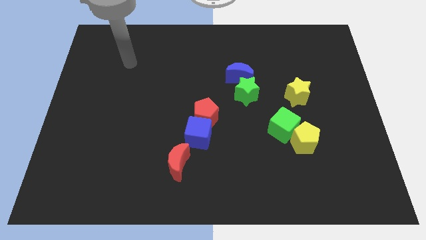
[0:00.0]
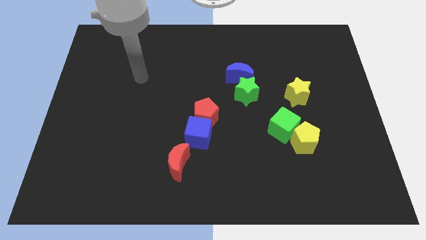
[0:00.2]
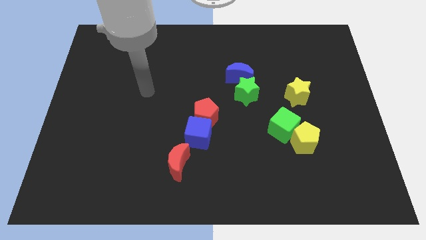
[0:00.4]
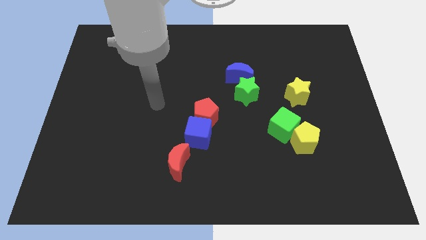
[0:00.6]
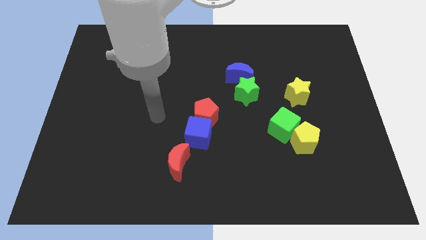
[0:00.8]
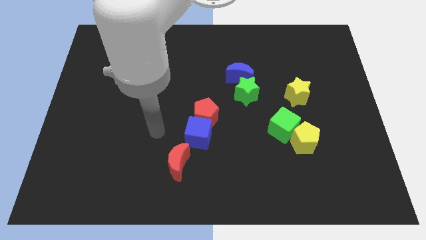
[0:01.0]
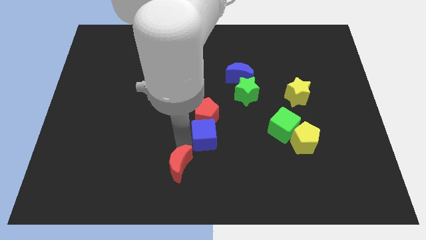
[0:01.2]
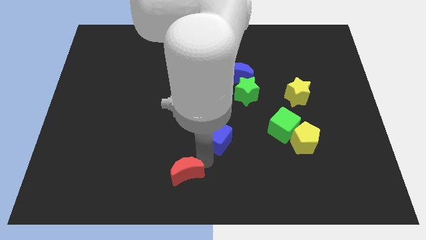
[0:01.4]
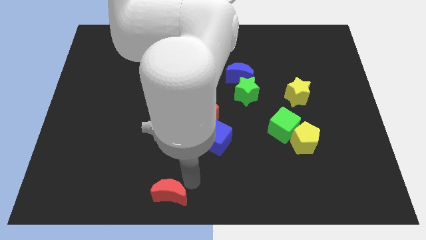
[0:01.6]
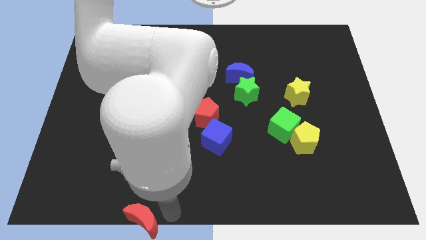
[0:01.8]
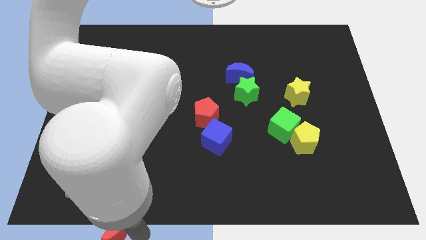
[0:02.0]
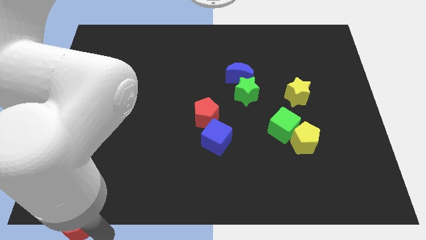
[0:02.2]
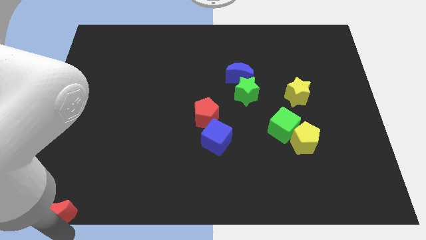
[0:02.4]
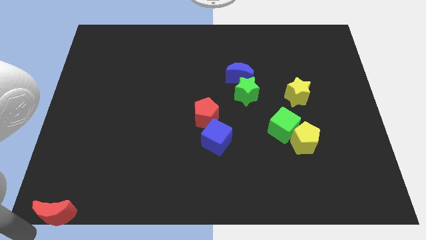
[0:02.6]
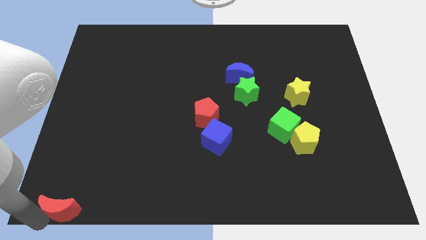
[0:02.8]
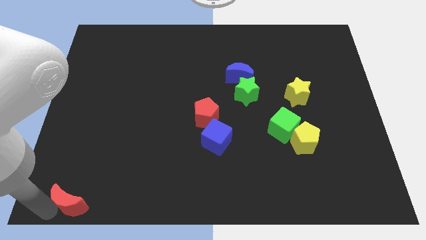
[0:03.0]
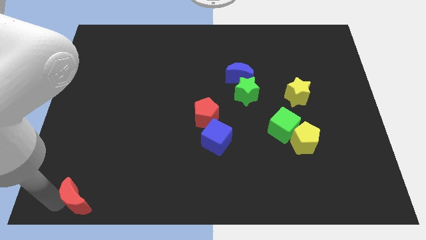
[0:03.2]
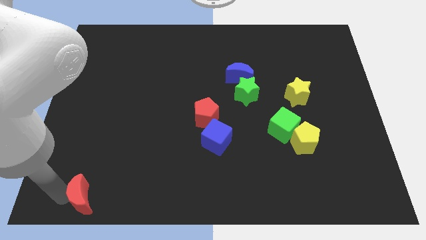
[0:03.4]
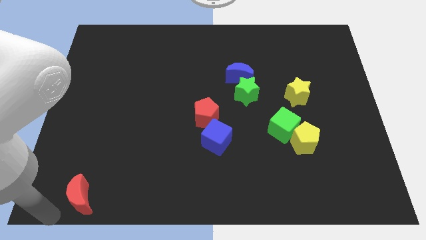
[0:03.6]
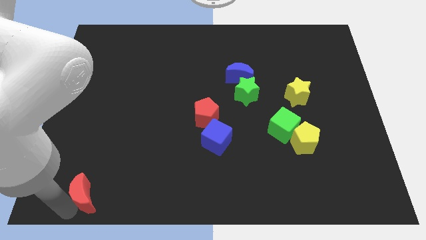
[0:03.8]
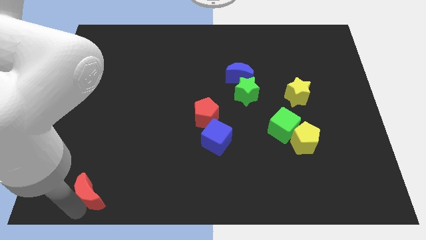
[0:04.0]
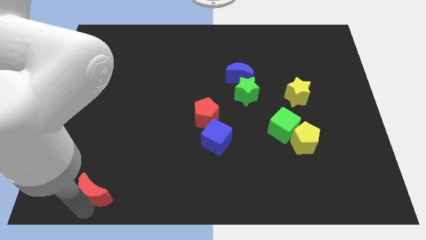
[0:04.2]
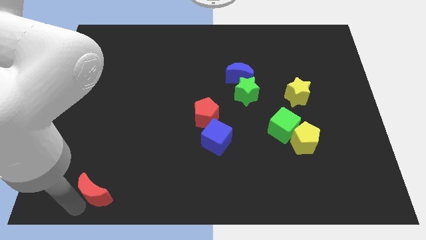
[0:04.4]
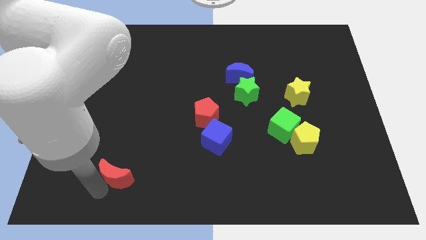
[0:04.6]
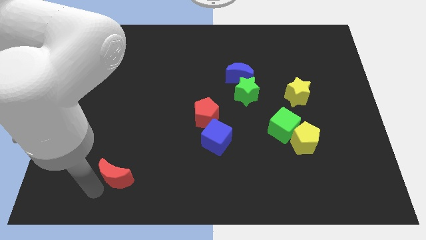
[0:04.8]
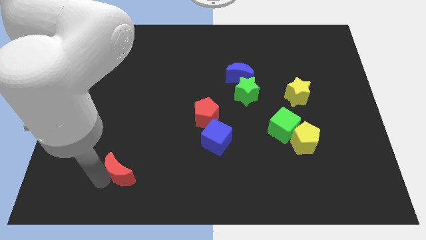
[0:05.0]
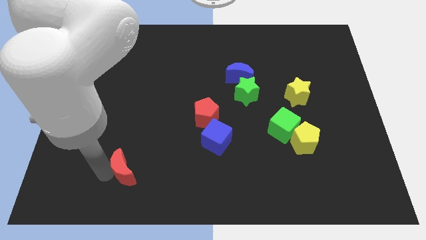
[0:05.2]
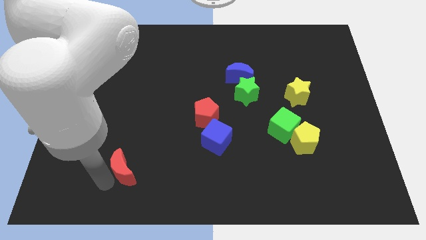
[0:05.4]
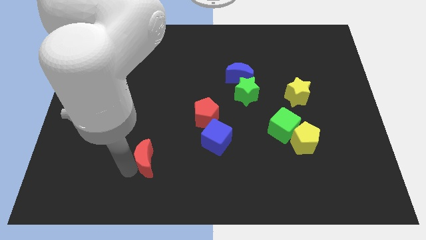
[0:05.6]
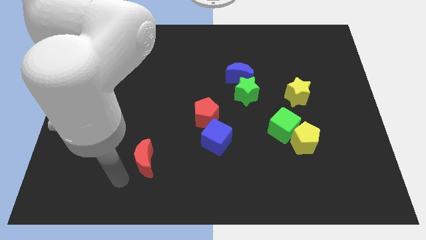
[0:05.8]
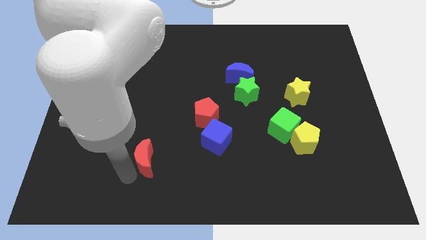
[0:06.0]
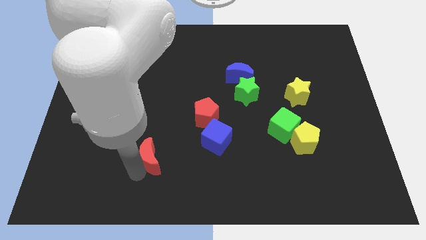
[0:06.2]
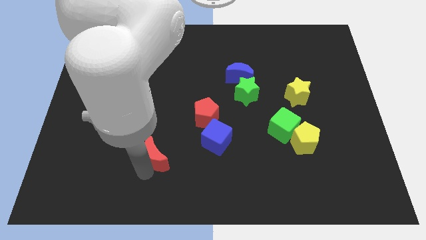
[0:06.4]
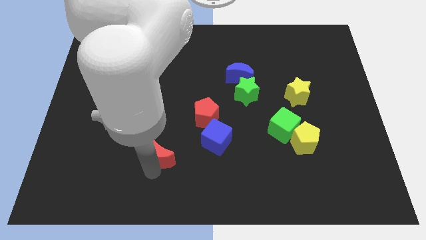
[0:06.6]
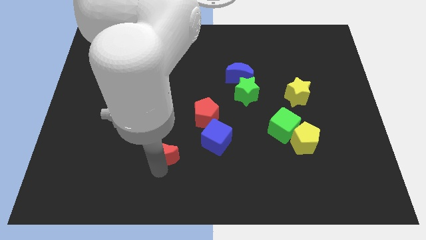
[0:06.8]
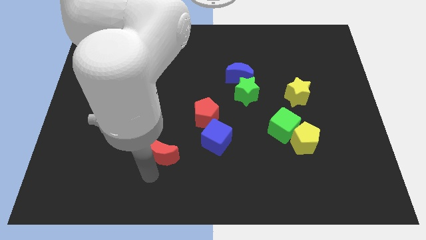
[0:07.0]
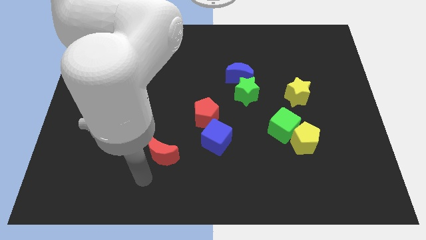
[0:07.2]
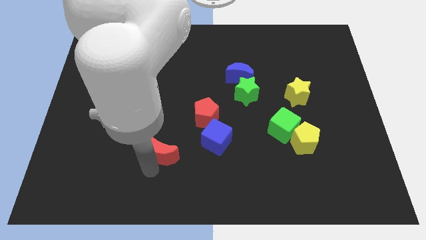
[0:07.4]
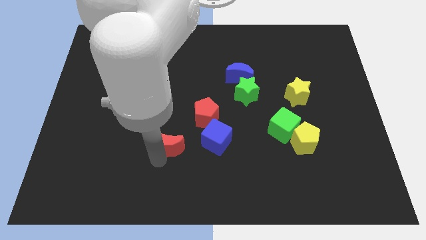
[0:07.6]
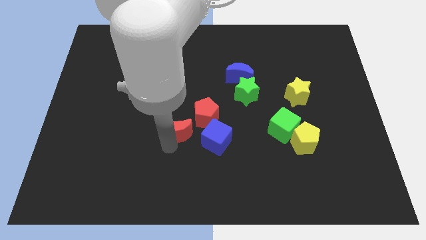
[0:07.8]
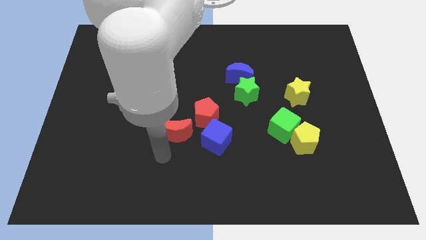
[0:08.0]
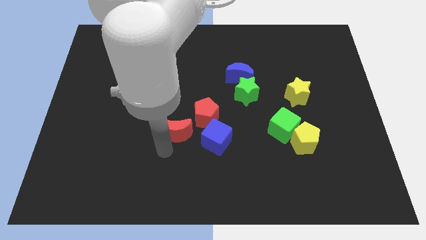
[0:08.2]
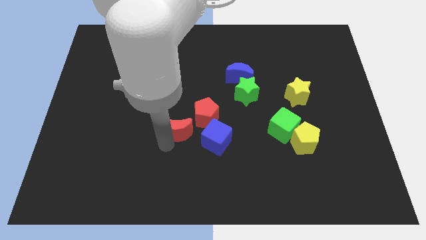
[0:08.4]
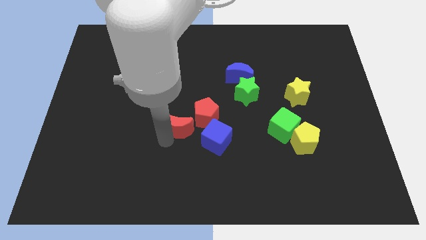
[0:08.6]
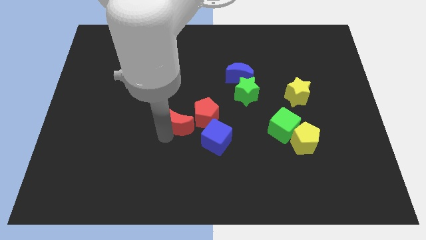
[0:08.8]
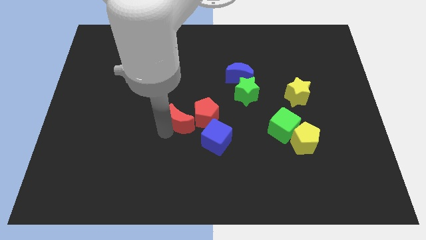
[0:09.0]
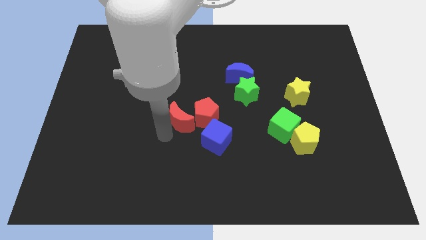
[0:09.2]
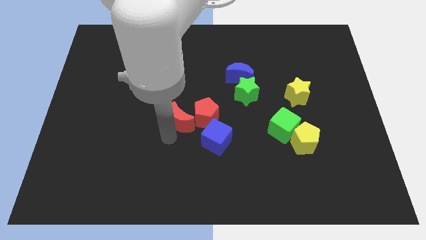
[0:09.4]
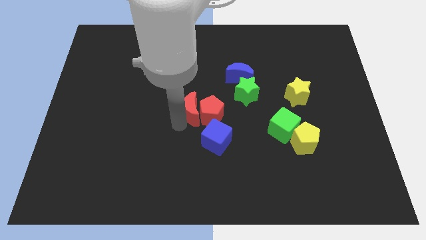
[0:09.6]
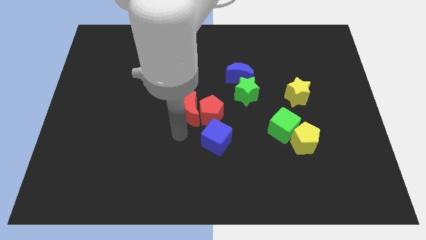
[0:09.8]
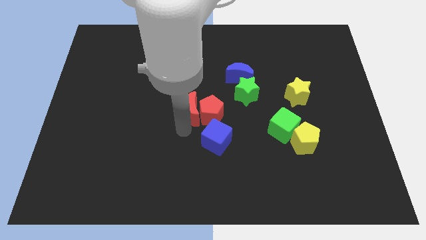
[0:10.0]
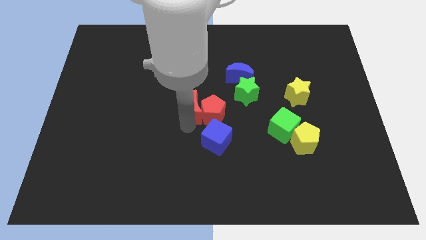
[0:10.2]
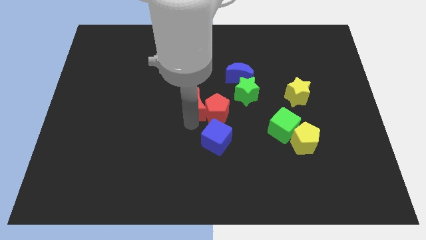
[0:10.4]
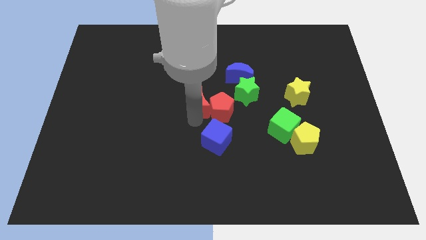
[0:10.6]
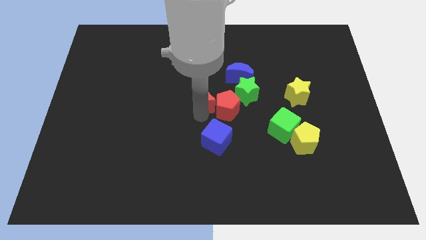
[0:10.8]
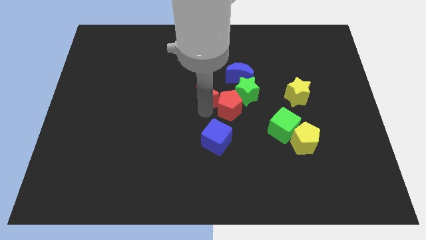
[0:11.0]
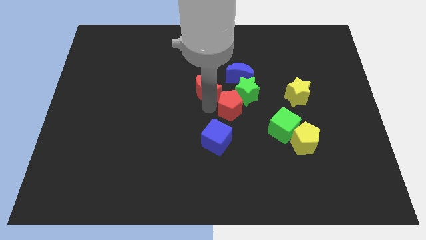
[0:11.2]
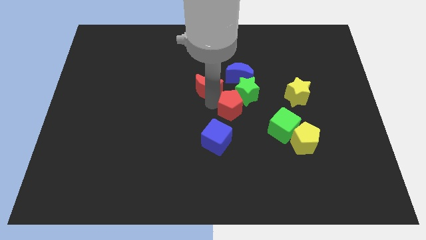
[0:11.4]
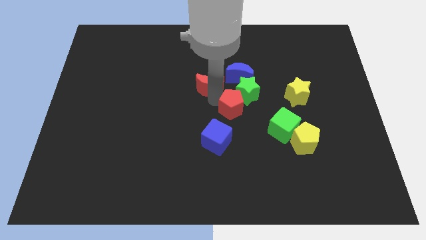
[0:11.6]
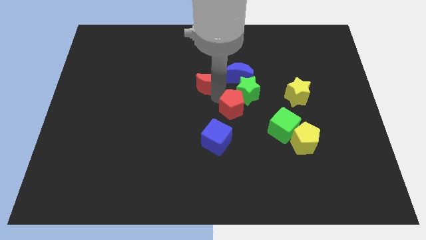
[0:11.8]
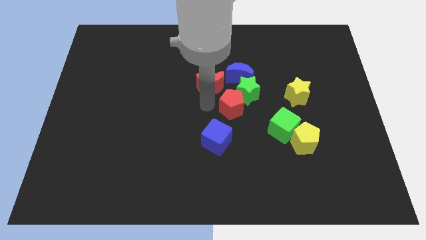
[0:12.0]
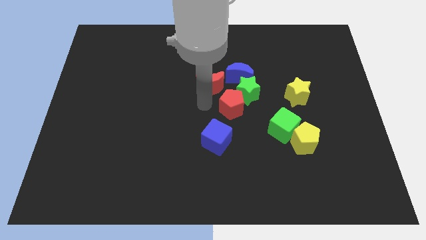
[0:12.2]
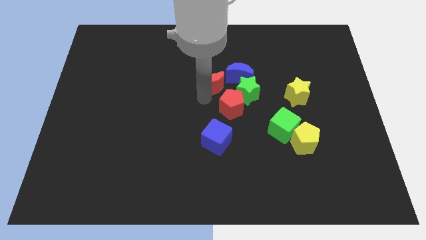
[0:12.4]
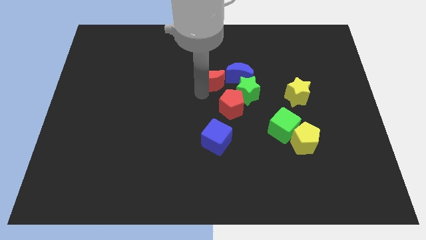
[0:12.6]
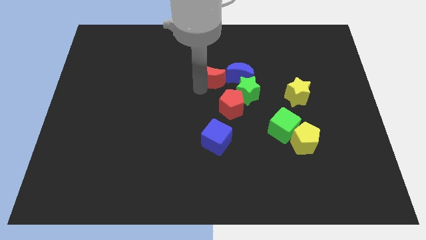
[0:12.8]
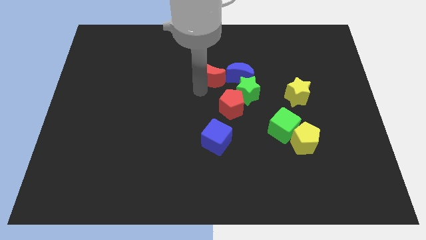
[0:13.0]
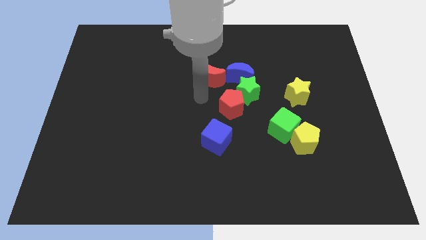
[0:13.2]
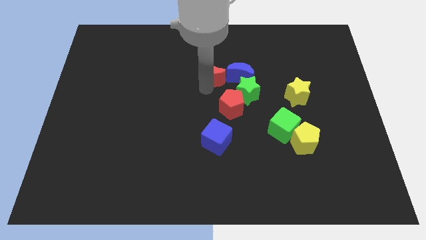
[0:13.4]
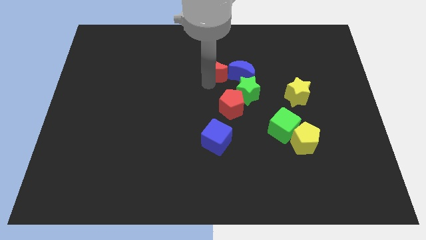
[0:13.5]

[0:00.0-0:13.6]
push the red moon to the top left of the blue moon
